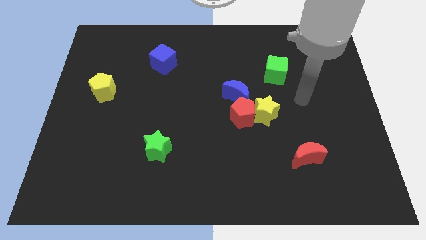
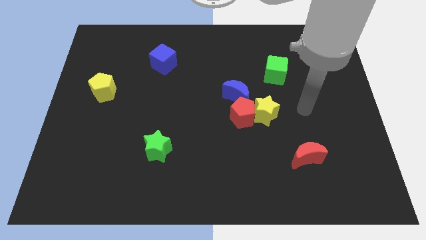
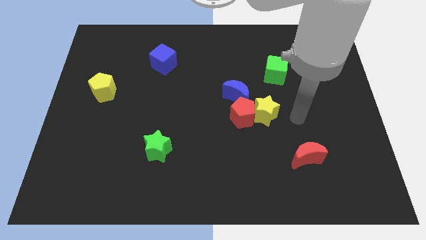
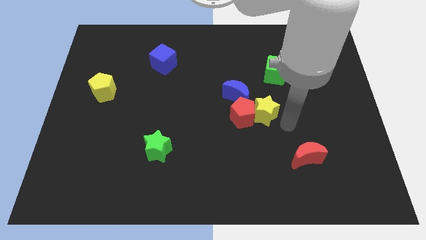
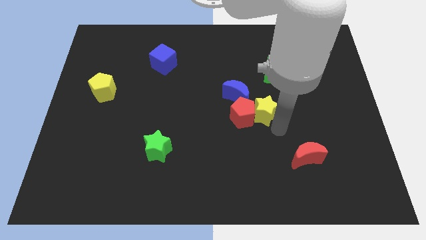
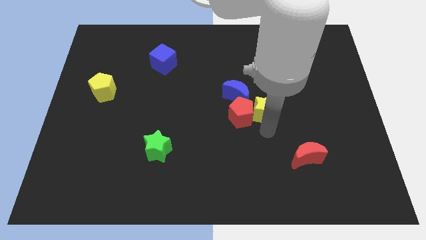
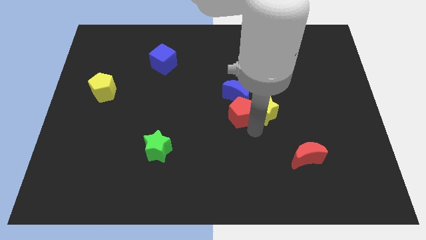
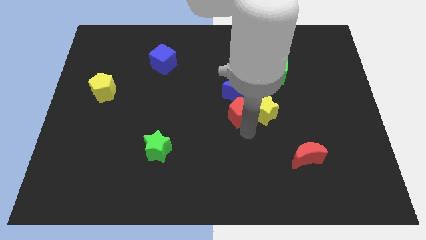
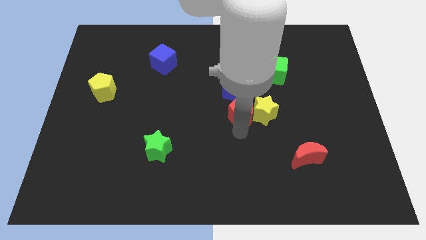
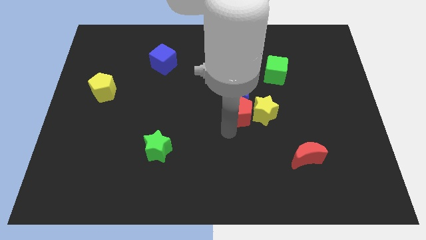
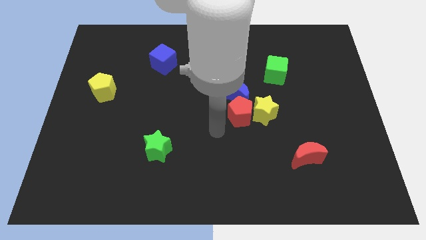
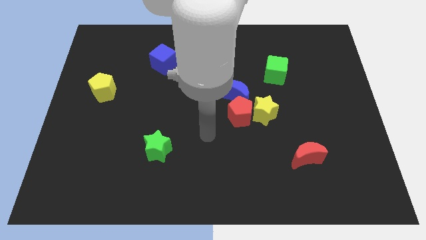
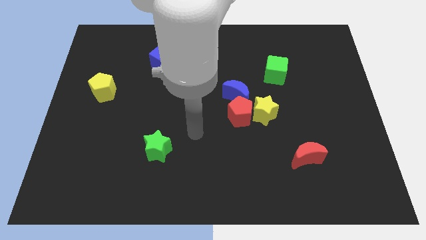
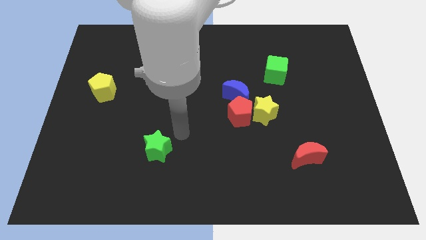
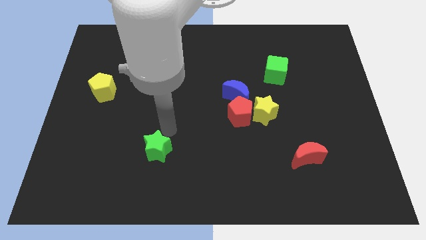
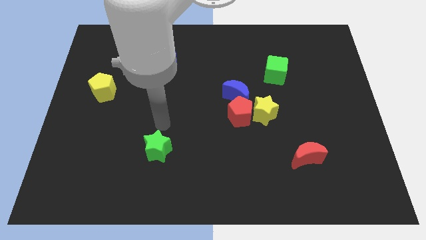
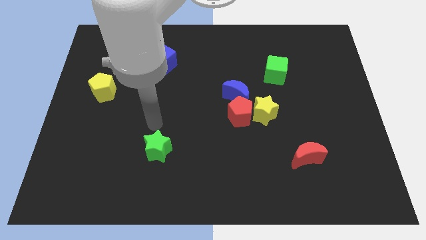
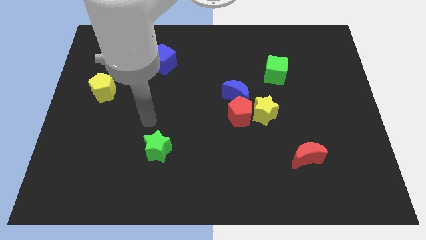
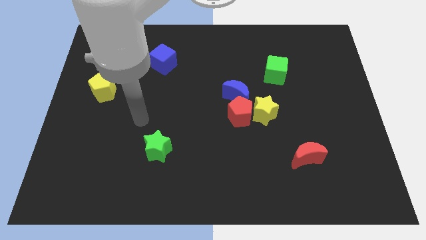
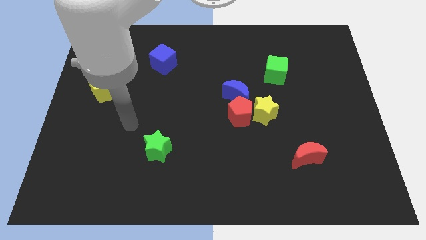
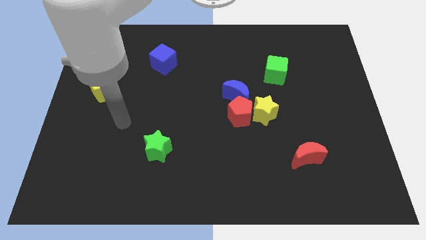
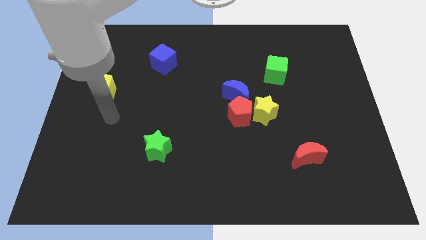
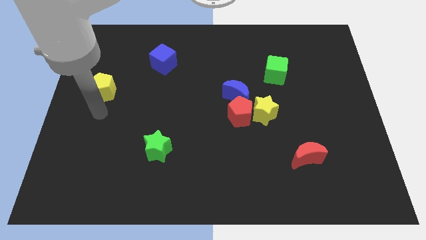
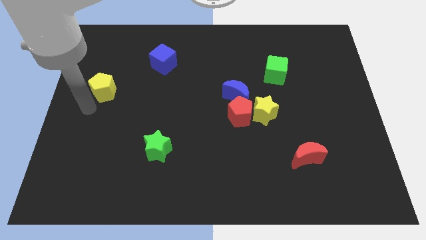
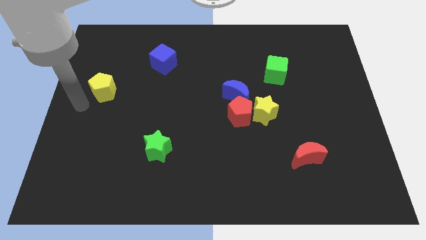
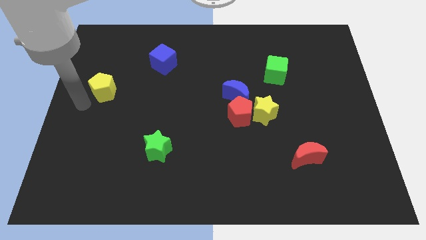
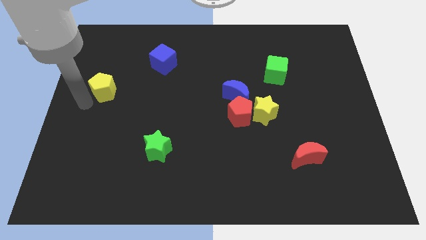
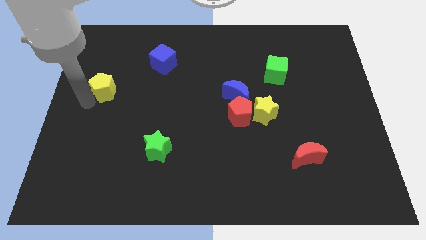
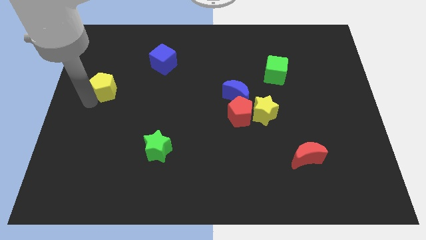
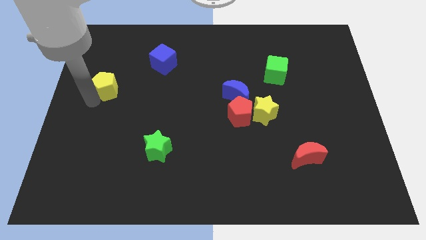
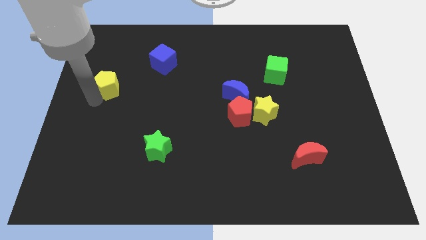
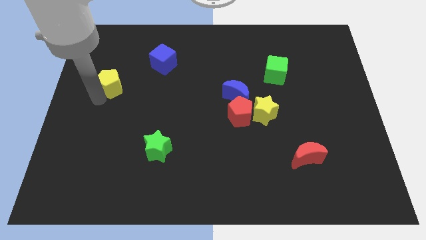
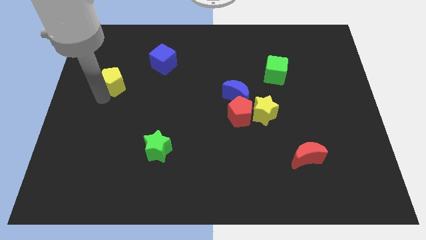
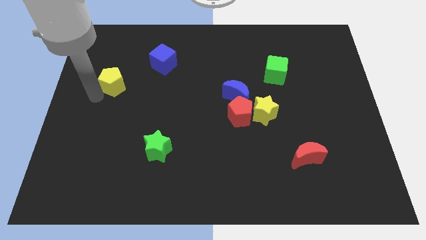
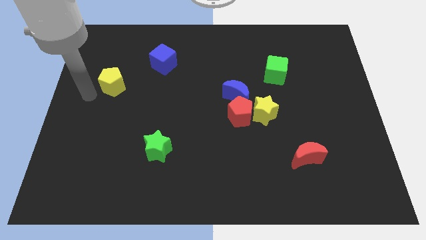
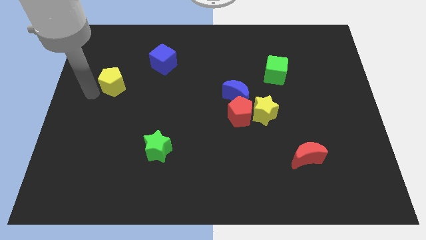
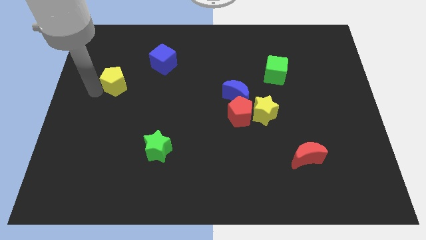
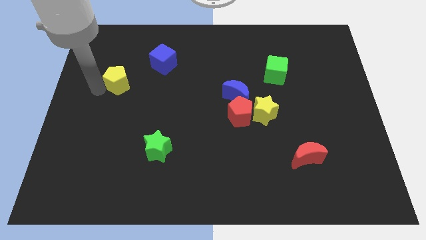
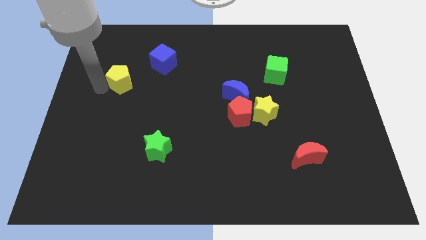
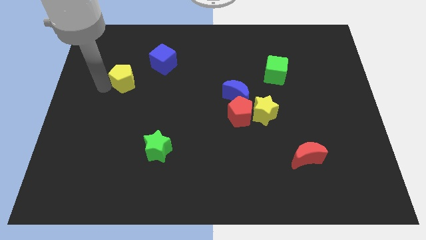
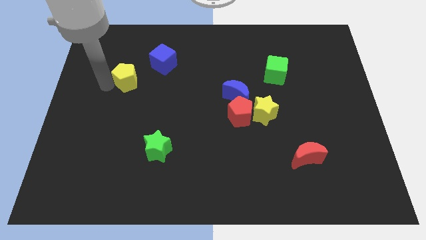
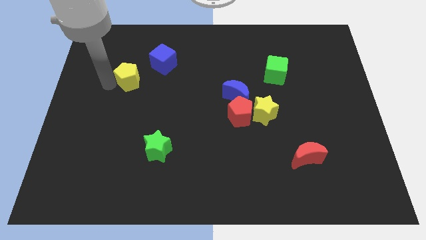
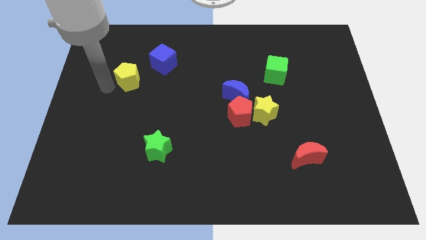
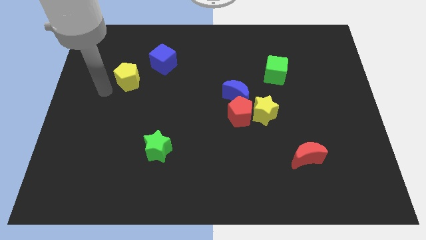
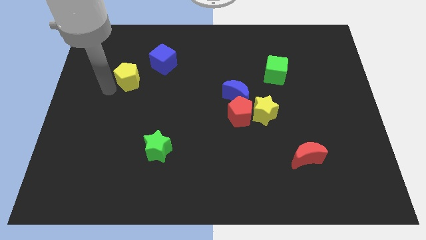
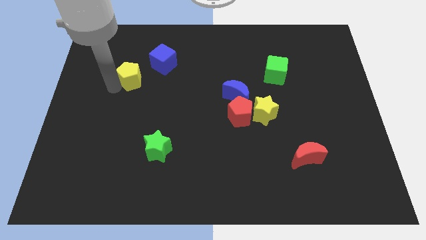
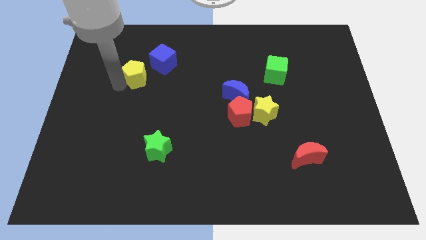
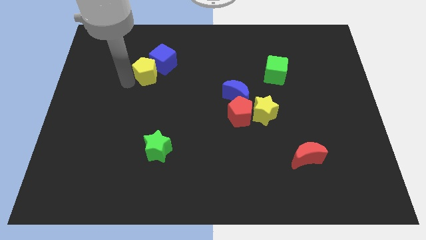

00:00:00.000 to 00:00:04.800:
put the yellow pentagon close to the blue cube

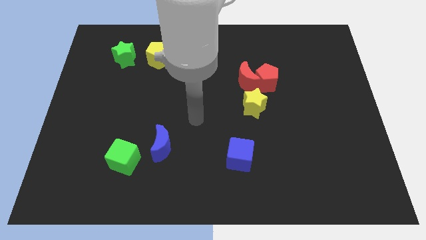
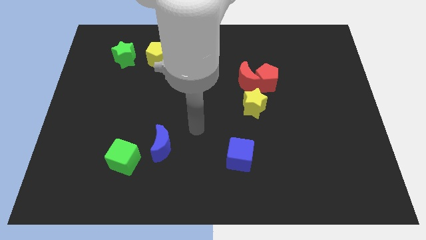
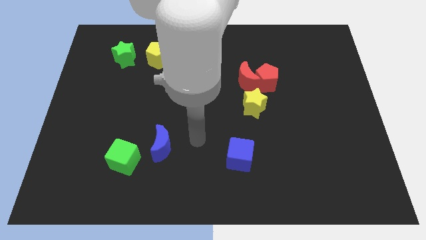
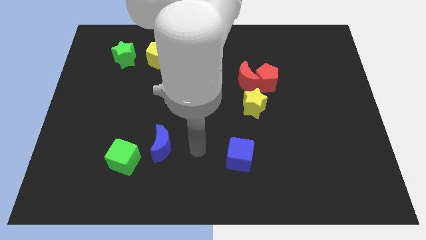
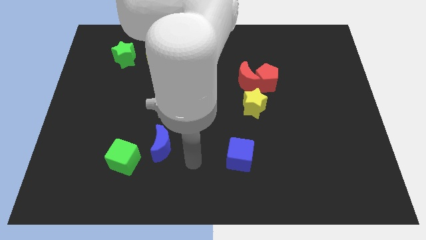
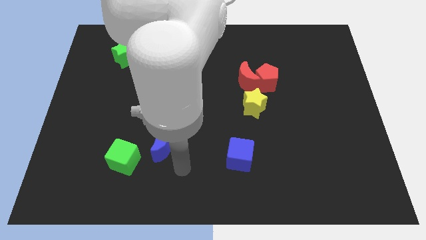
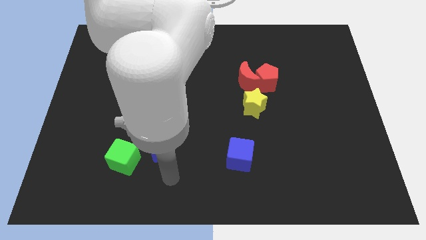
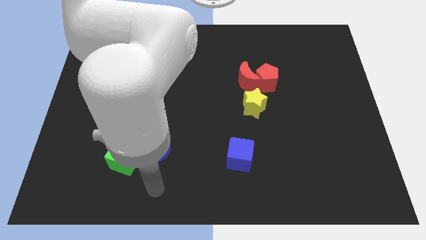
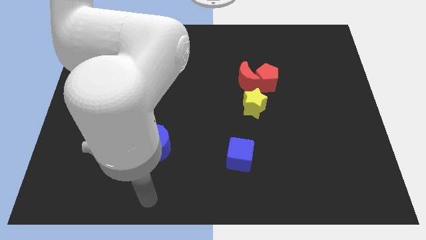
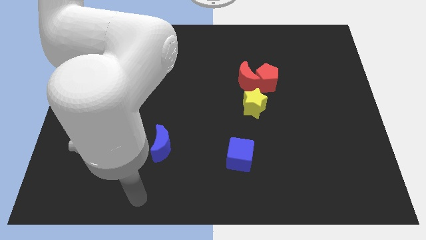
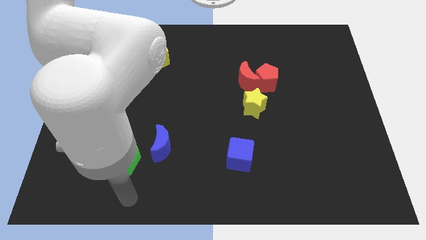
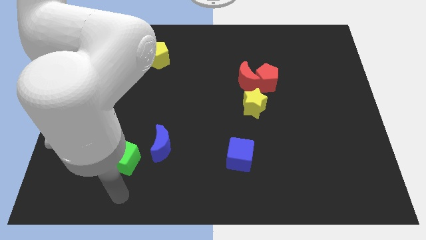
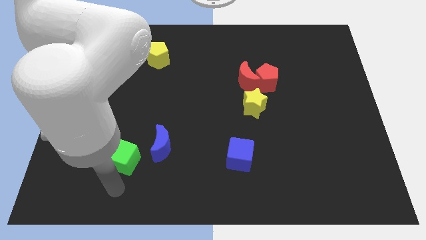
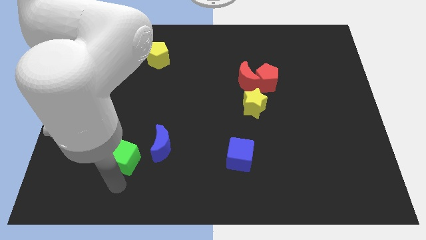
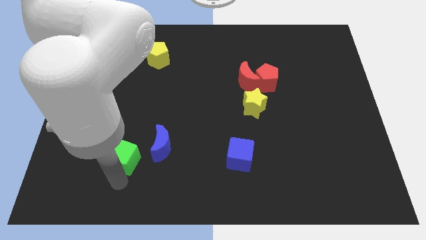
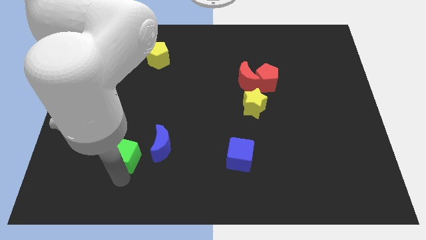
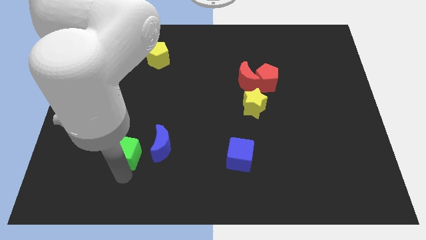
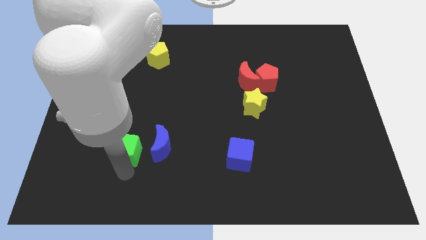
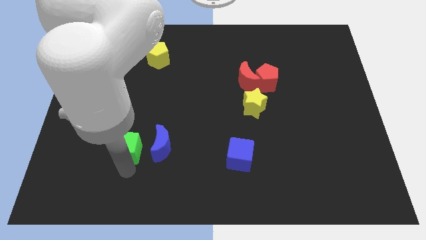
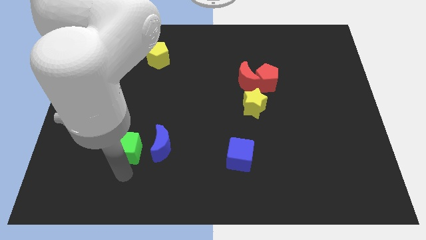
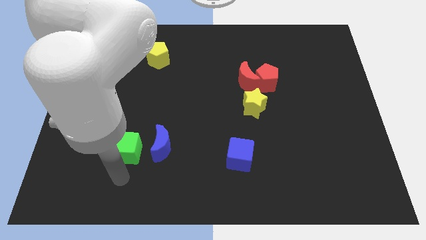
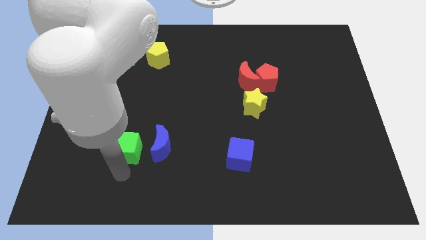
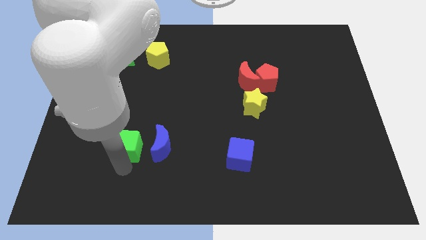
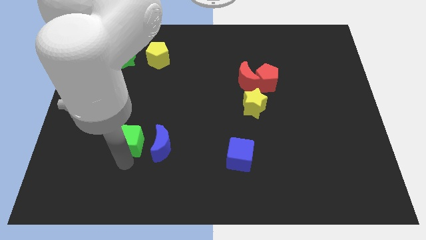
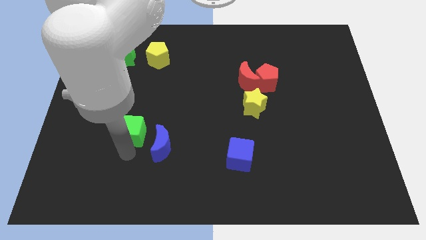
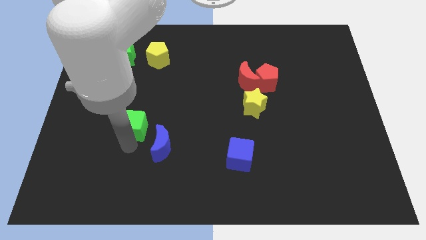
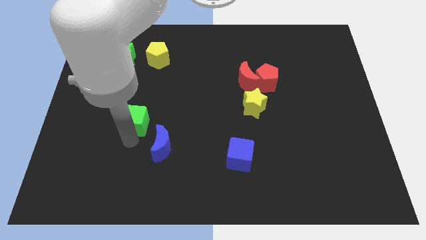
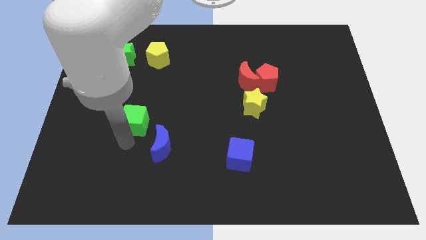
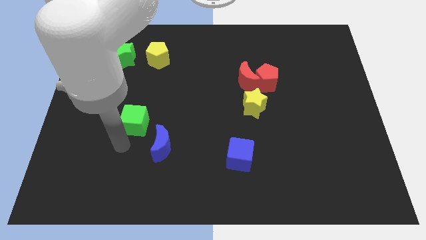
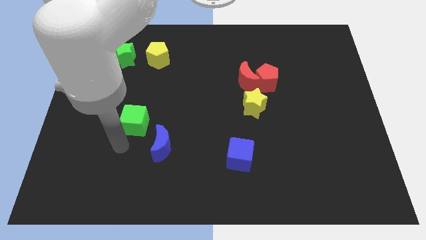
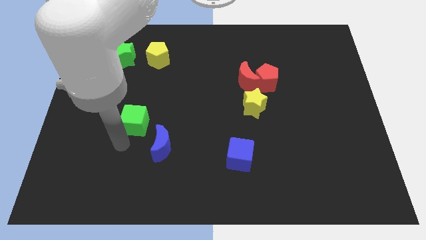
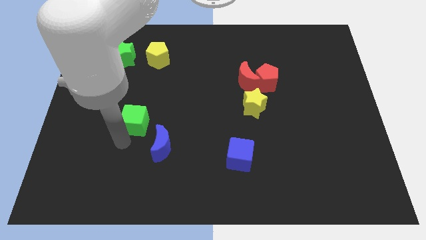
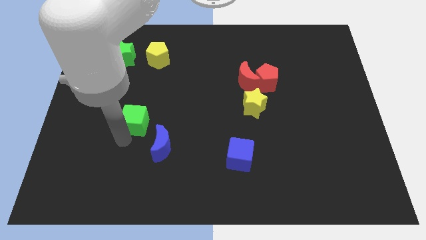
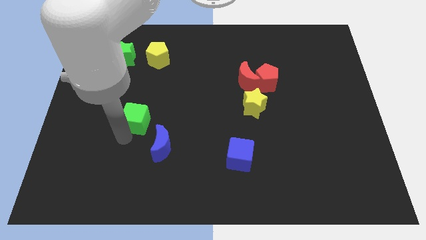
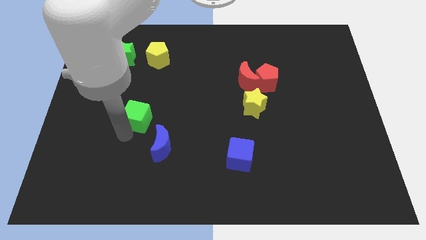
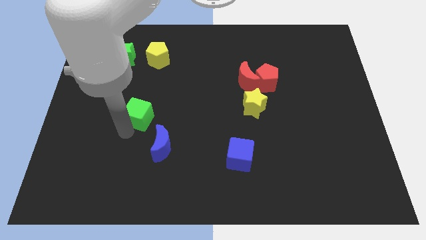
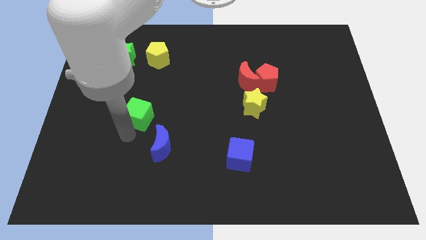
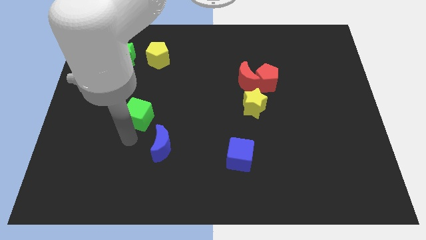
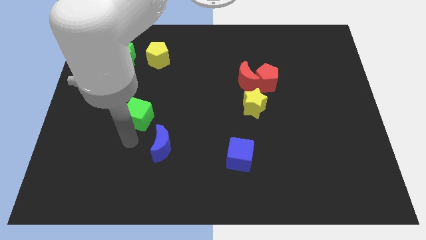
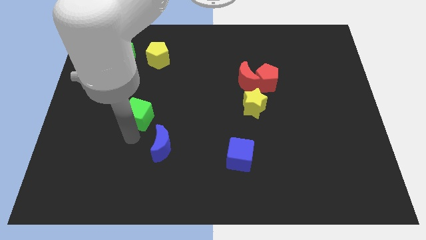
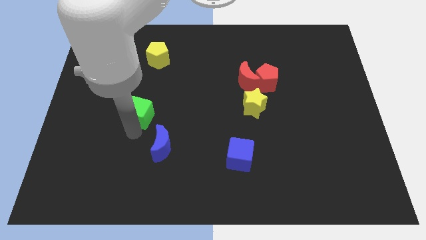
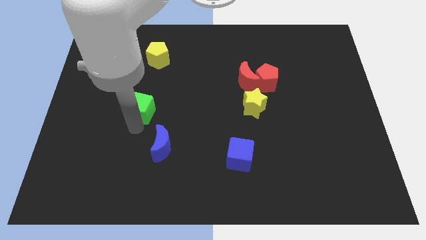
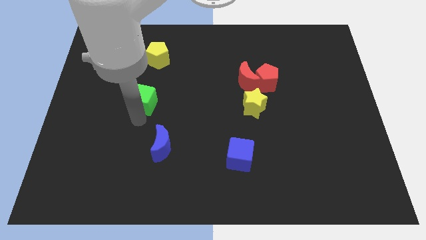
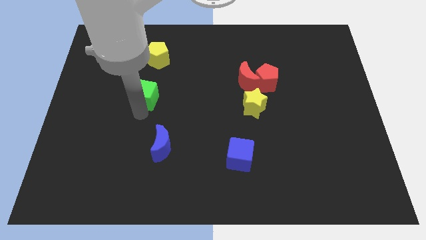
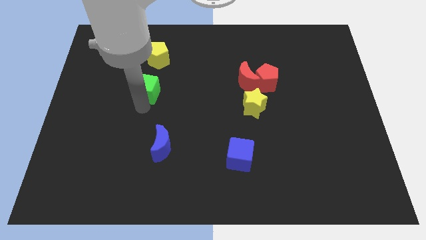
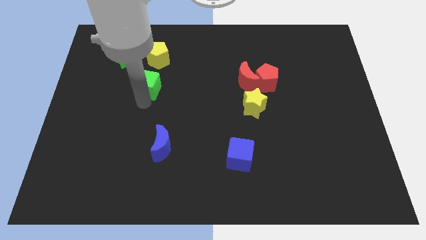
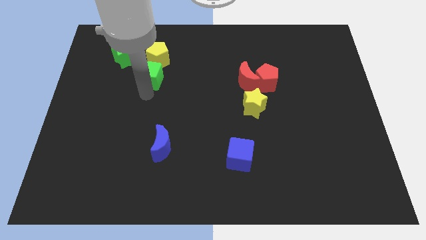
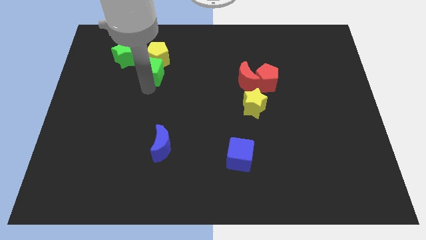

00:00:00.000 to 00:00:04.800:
put the green cube next to the yellow pentagon
